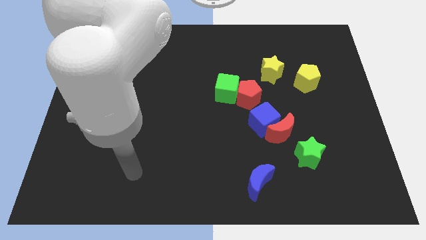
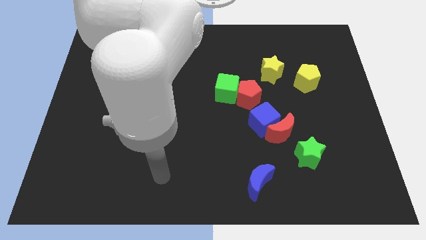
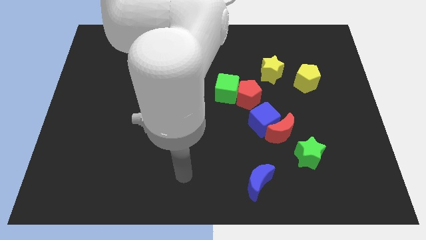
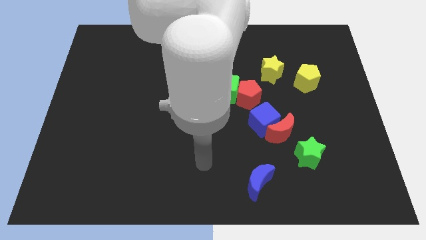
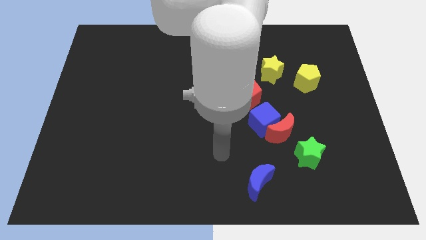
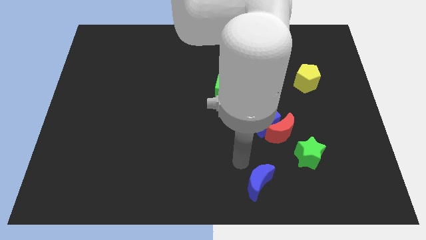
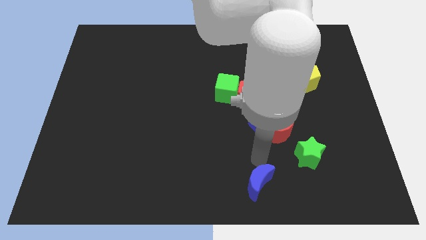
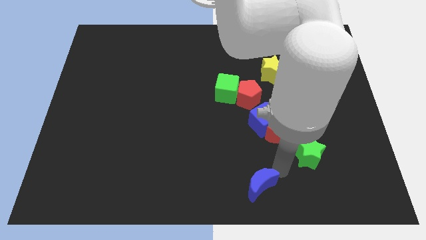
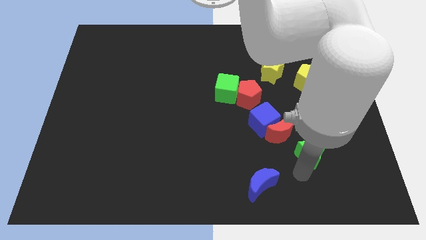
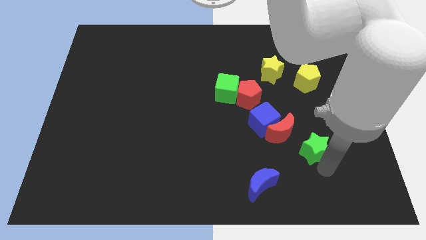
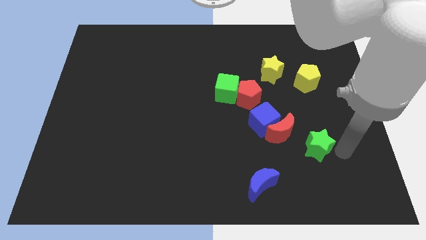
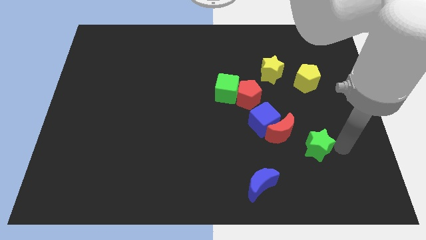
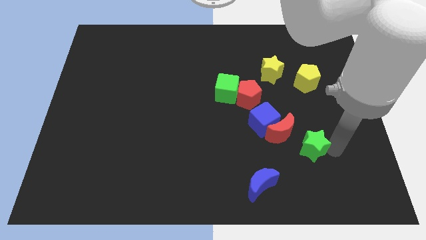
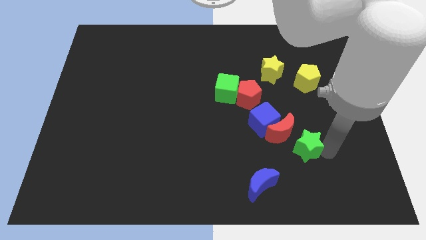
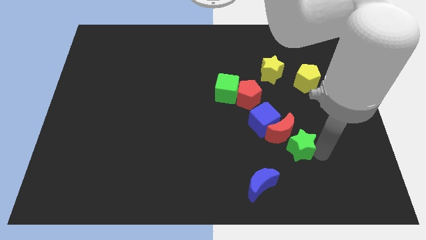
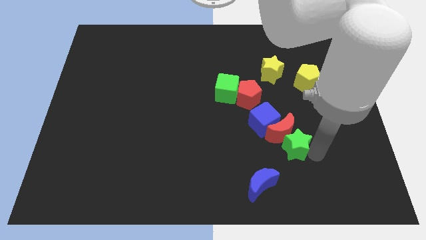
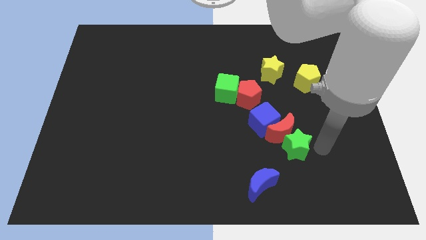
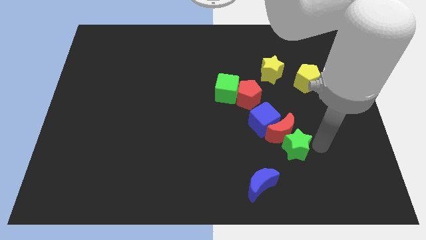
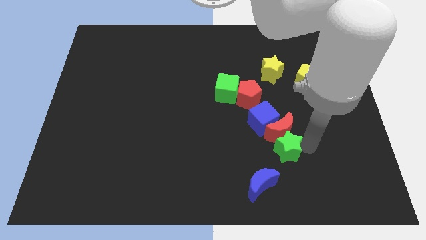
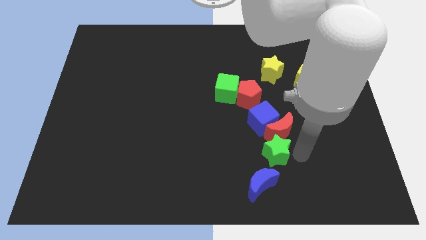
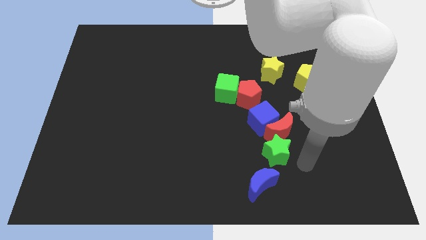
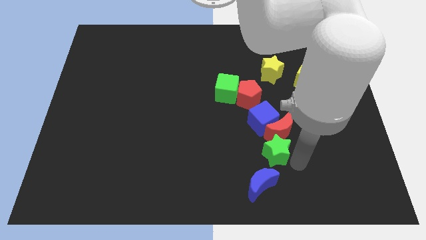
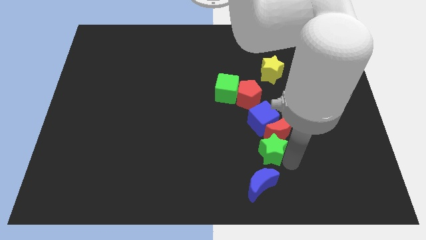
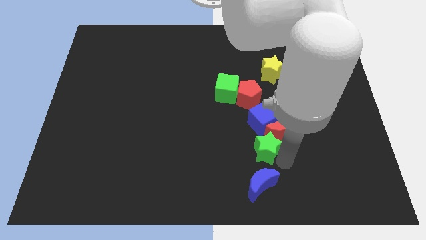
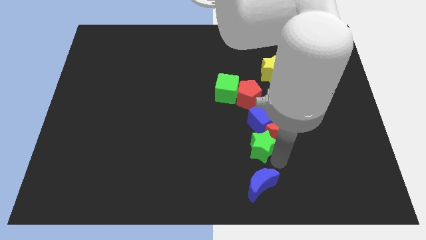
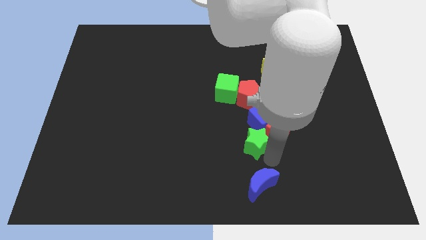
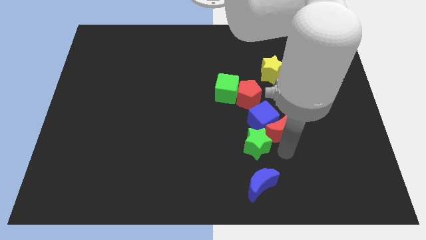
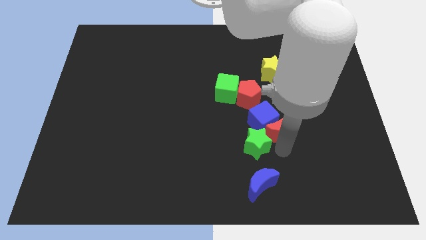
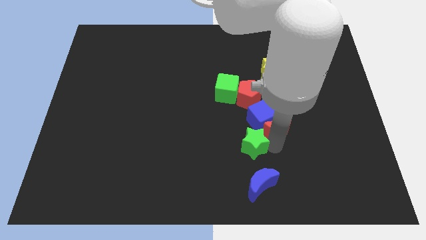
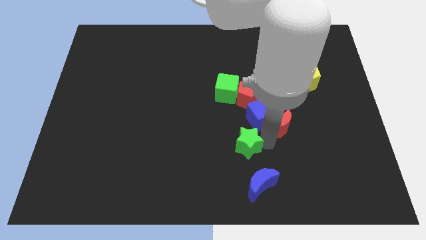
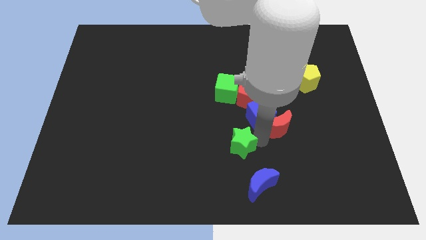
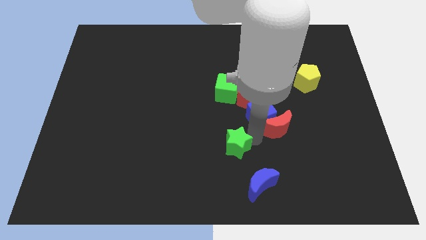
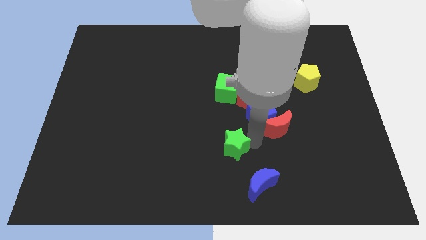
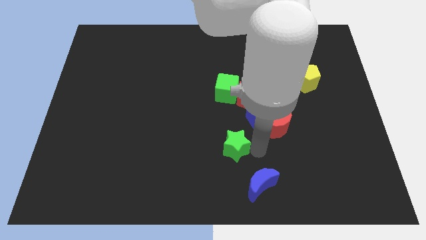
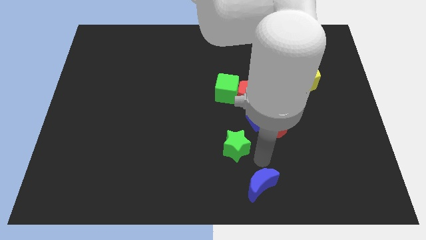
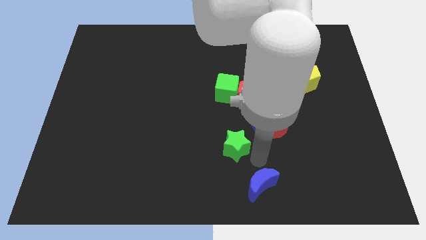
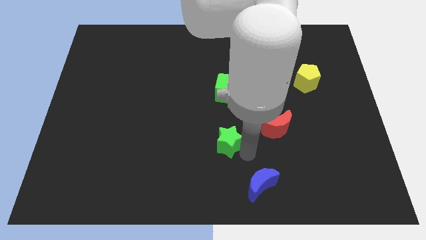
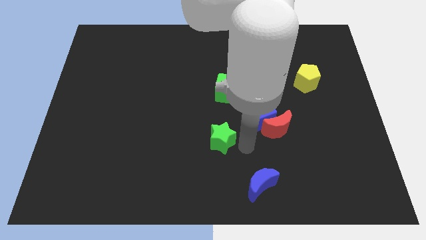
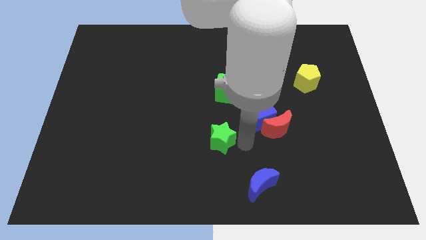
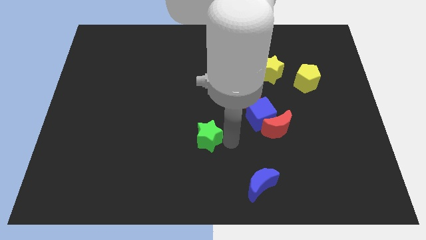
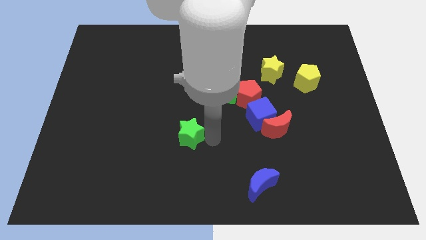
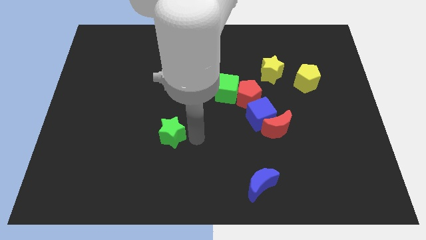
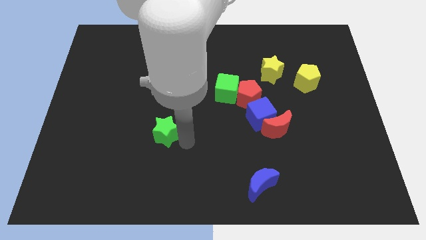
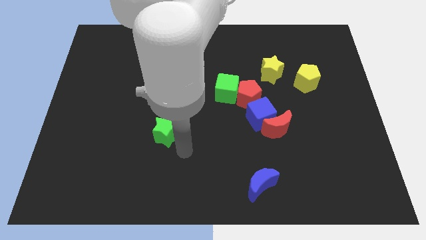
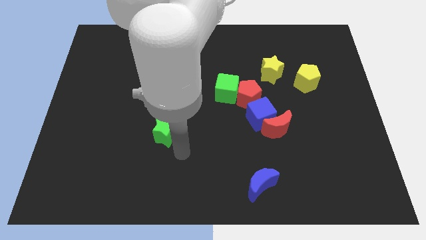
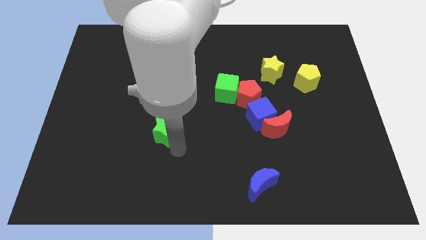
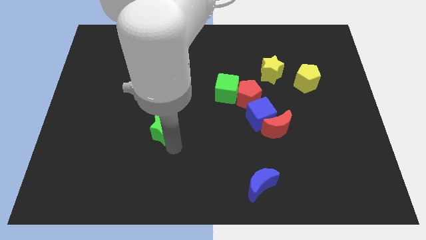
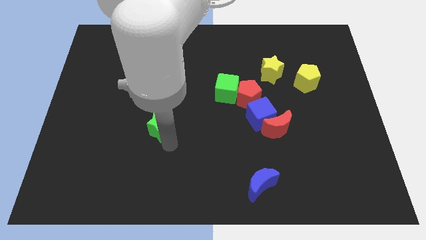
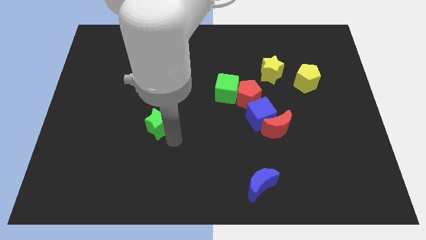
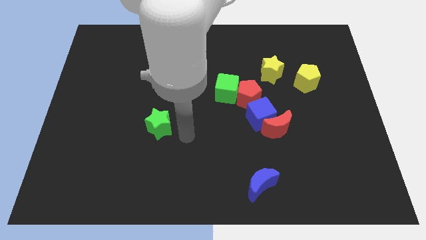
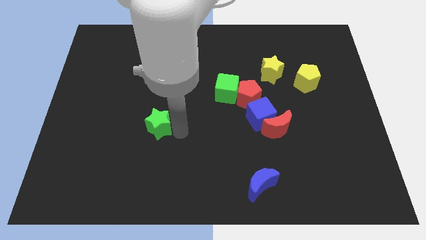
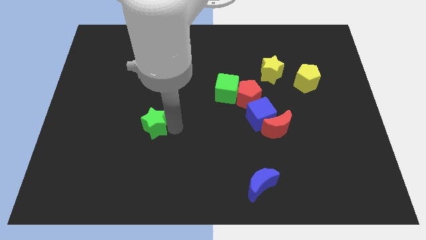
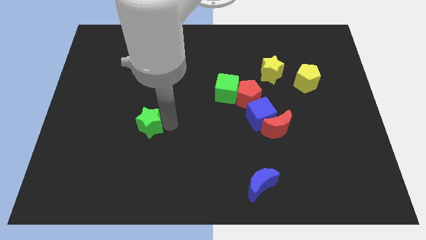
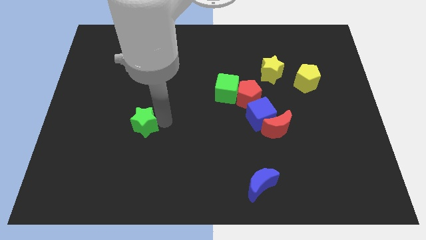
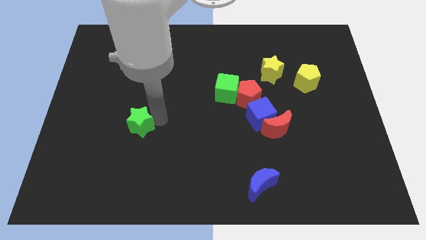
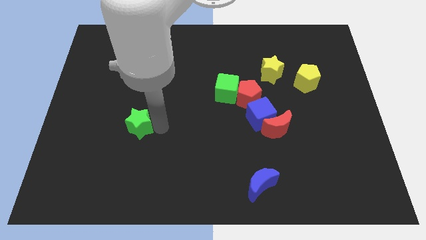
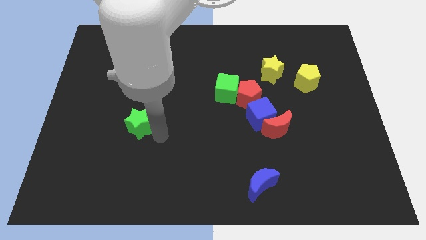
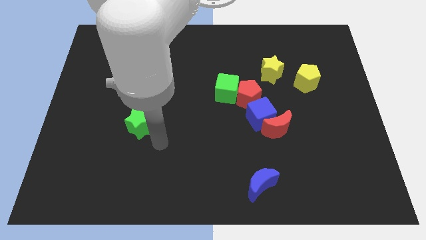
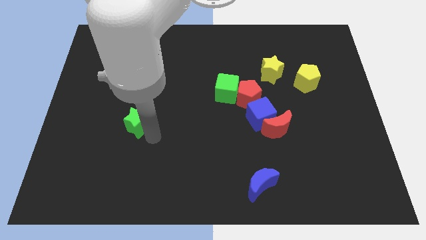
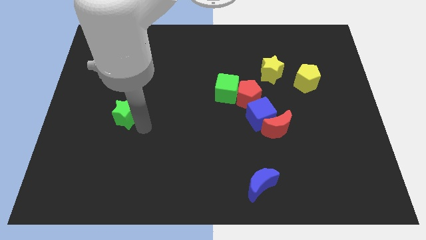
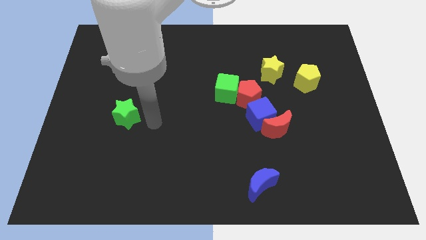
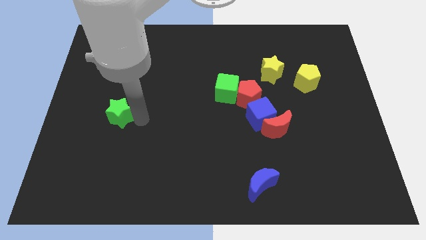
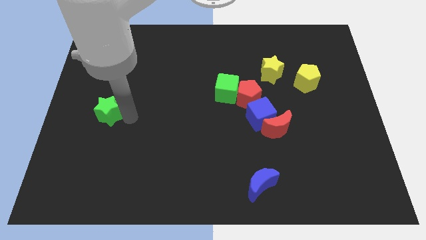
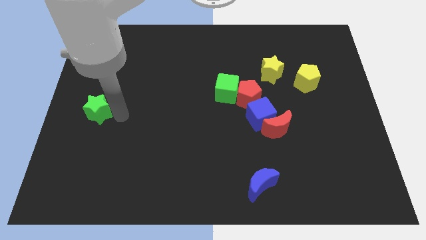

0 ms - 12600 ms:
put the green star to the left side of the board

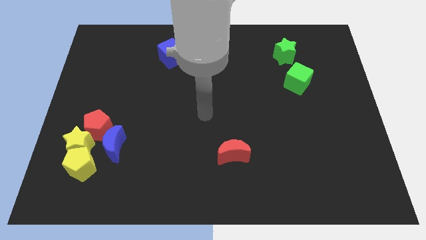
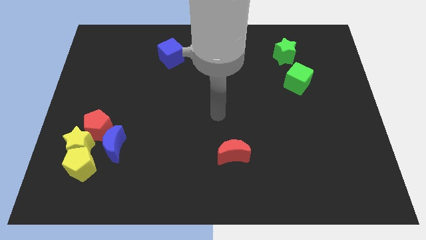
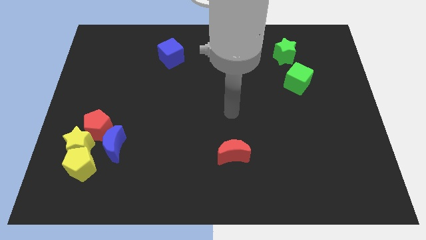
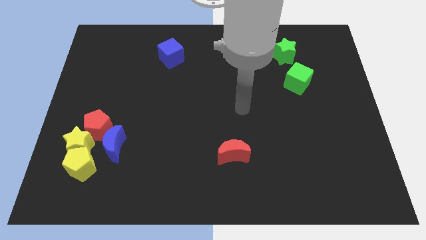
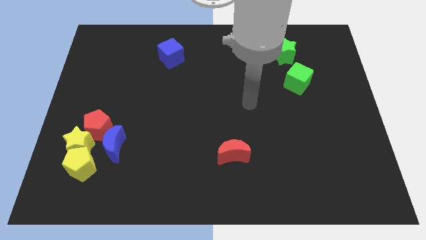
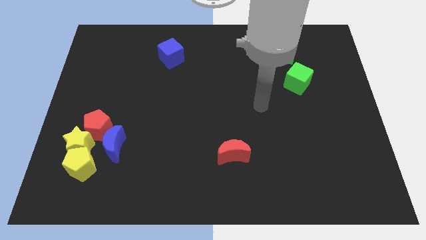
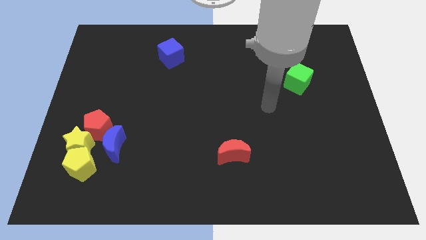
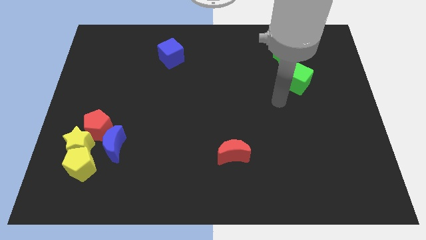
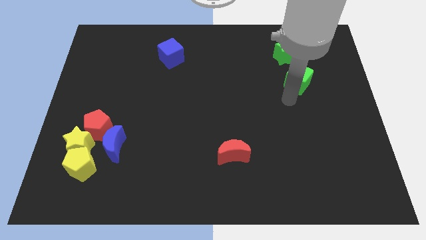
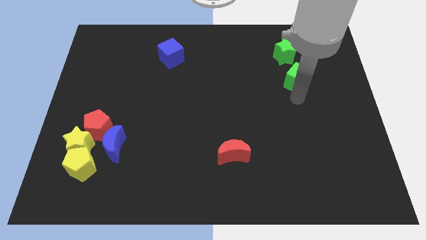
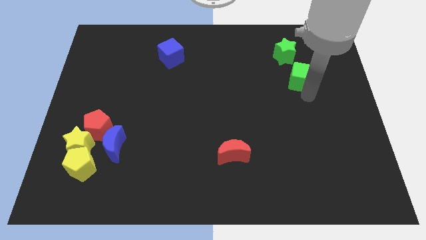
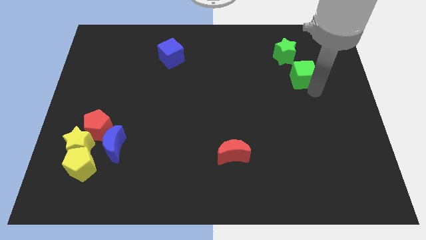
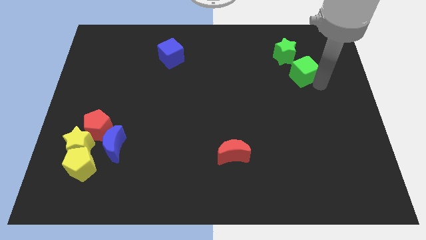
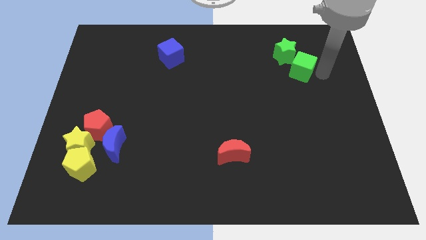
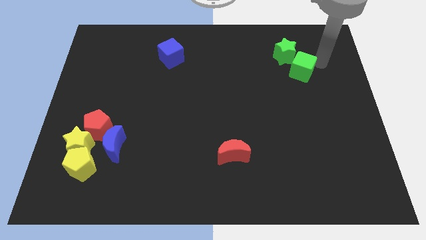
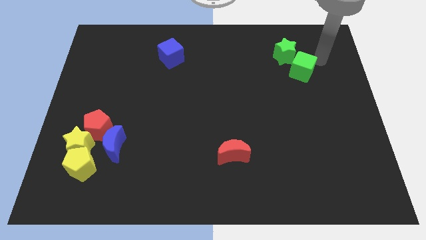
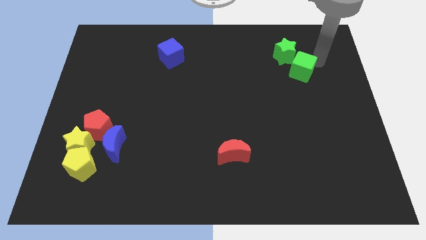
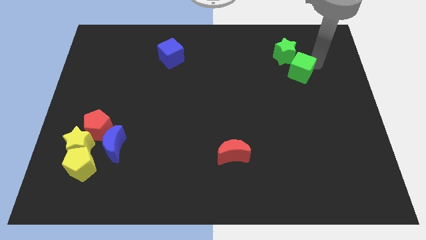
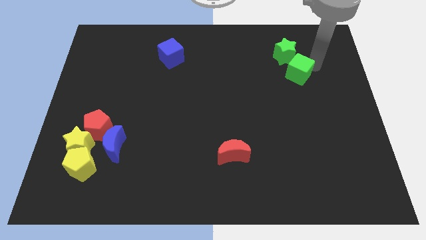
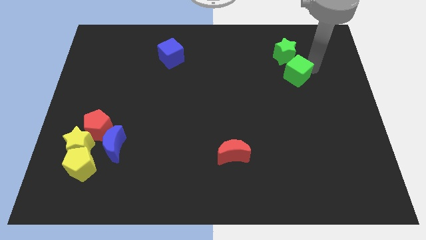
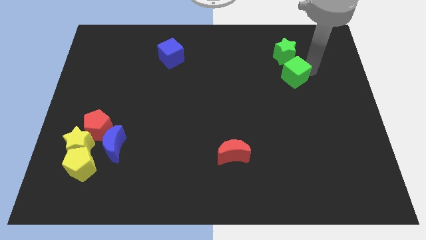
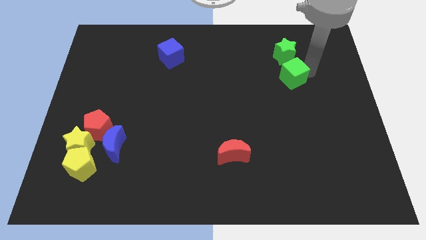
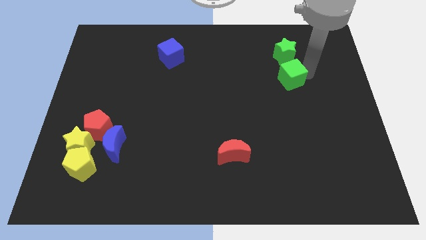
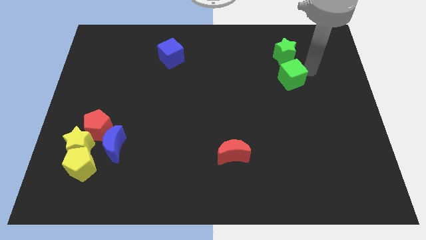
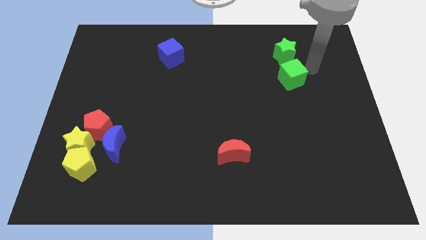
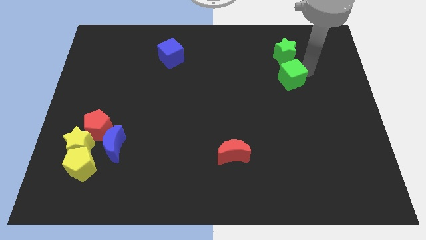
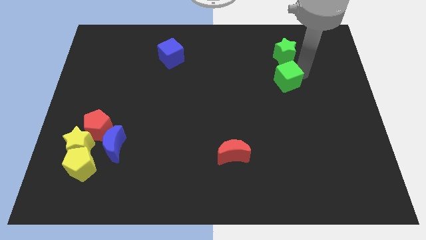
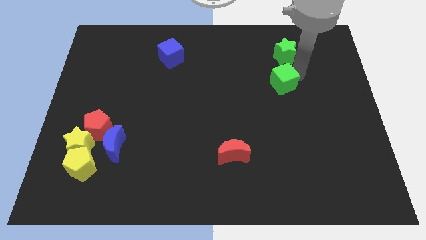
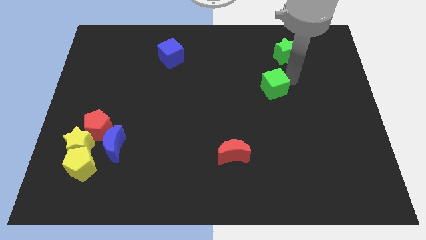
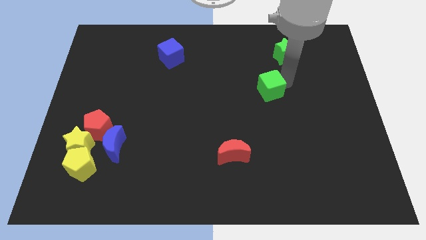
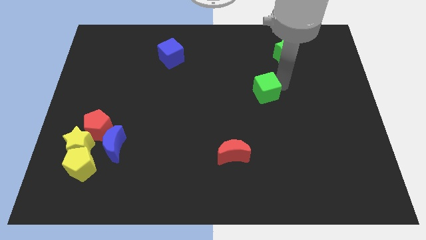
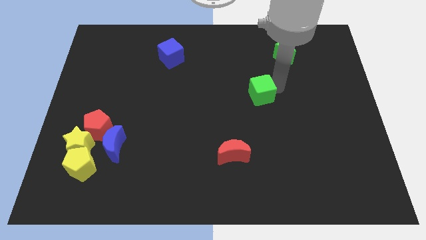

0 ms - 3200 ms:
push the green cube to the center
